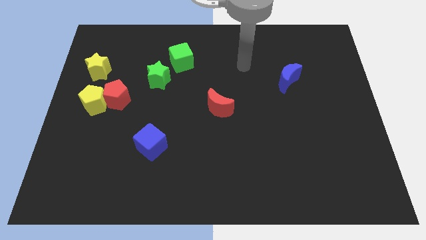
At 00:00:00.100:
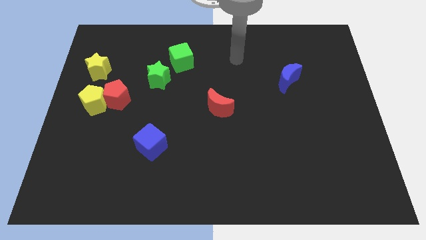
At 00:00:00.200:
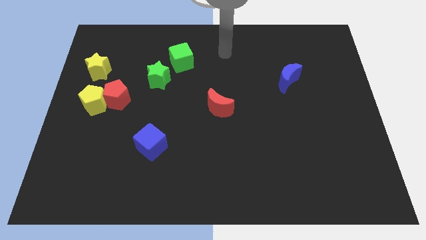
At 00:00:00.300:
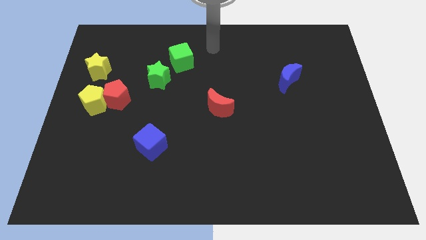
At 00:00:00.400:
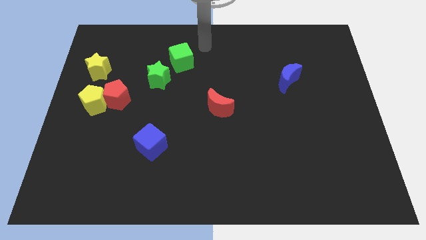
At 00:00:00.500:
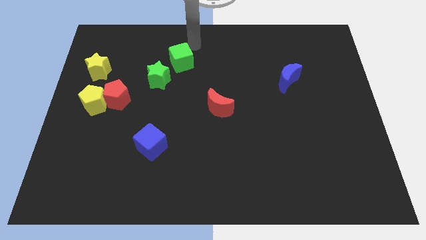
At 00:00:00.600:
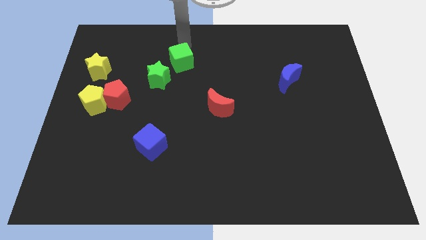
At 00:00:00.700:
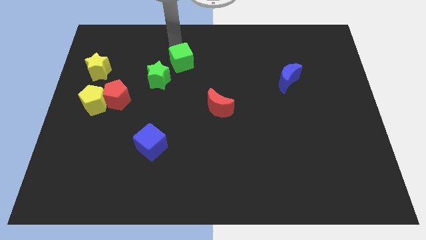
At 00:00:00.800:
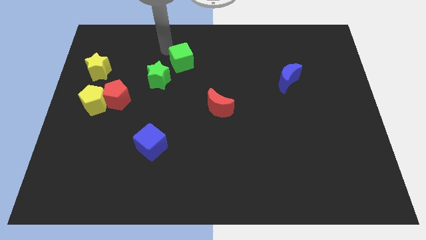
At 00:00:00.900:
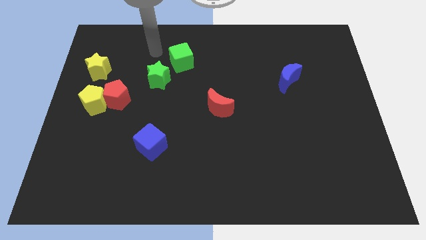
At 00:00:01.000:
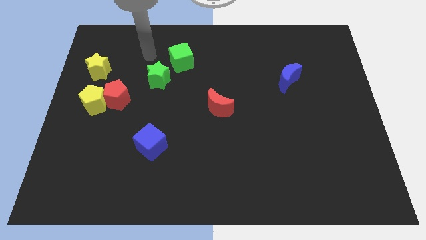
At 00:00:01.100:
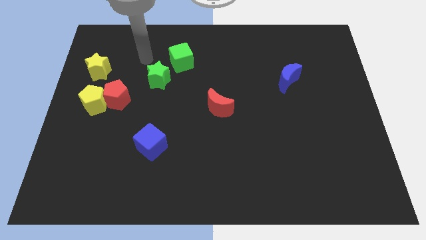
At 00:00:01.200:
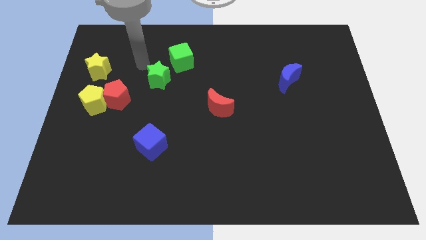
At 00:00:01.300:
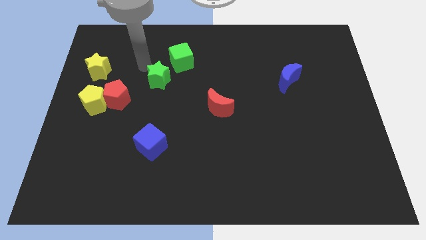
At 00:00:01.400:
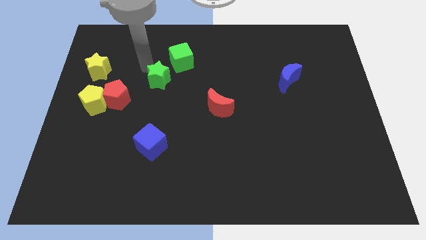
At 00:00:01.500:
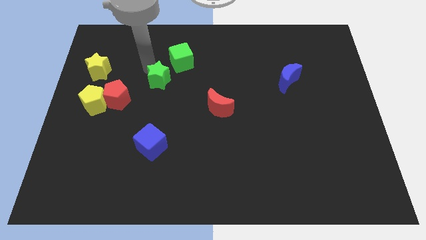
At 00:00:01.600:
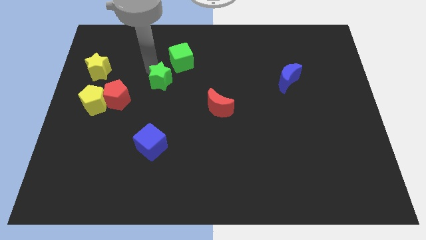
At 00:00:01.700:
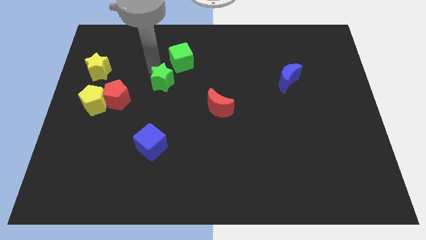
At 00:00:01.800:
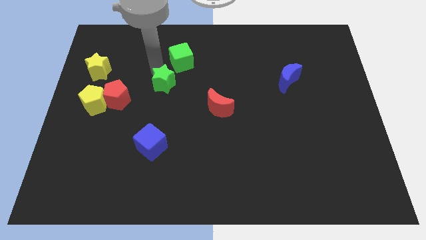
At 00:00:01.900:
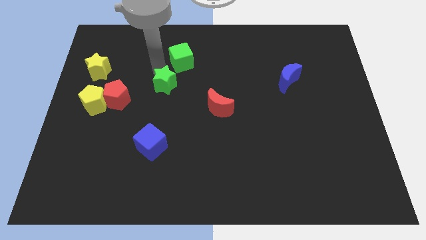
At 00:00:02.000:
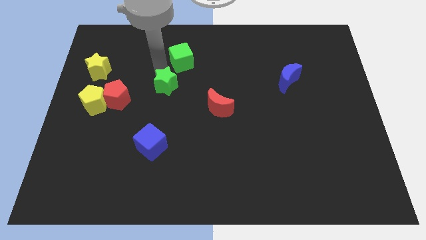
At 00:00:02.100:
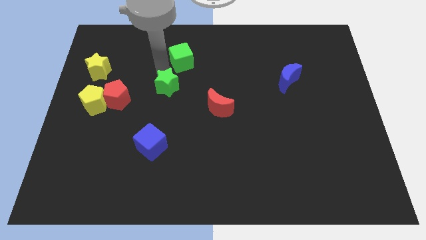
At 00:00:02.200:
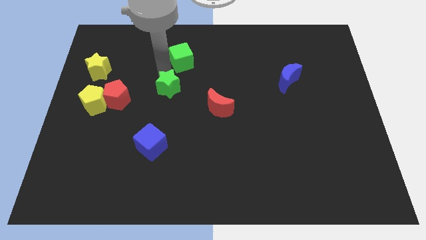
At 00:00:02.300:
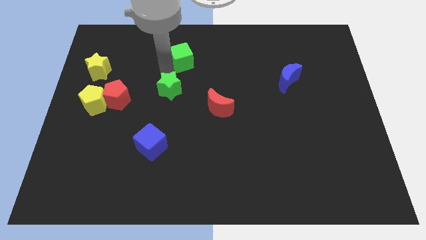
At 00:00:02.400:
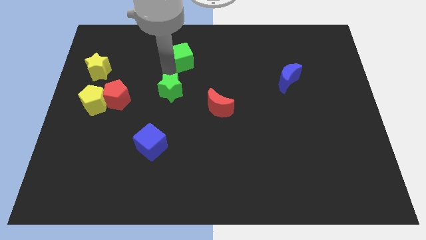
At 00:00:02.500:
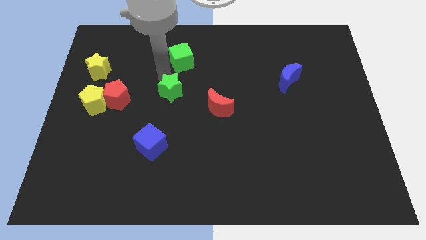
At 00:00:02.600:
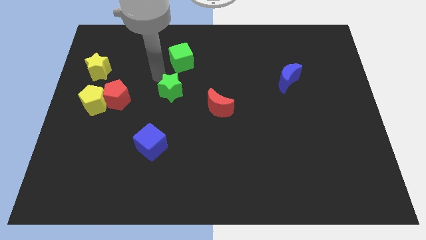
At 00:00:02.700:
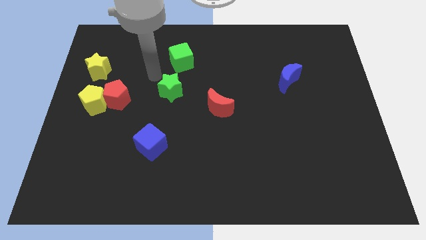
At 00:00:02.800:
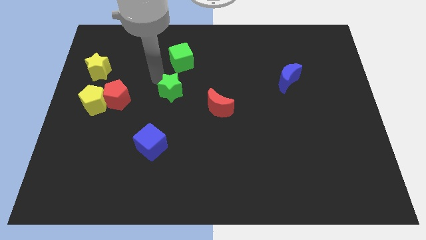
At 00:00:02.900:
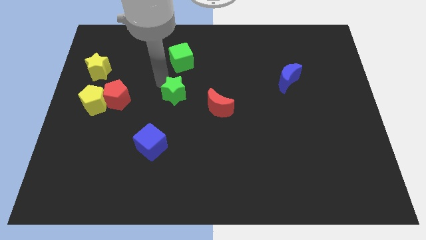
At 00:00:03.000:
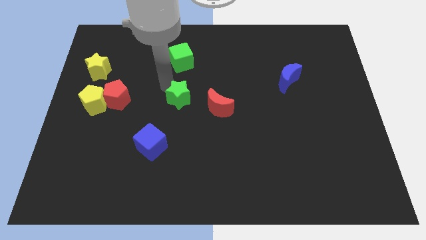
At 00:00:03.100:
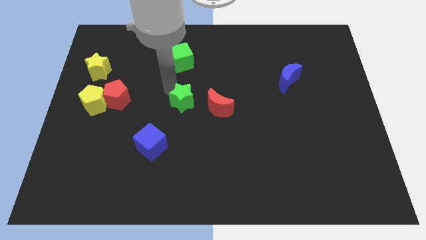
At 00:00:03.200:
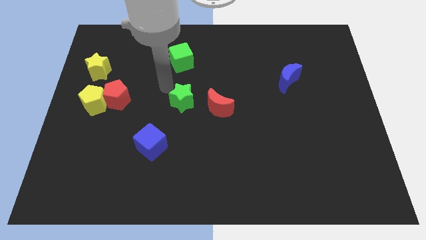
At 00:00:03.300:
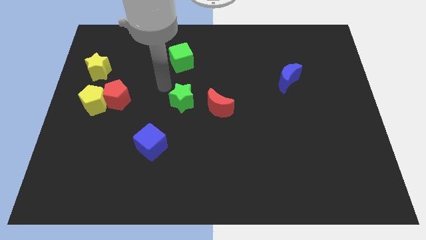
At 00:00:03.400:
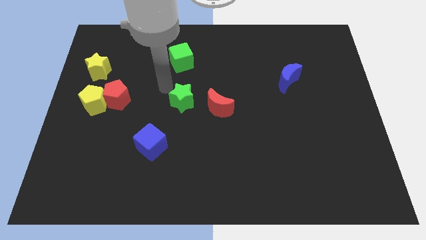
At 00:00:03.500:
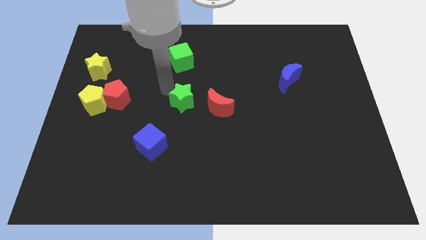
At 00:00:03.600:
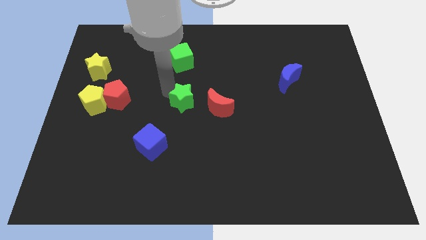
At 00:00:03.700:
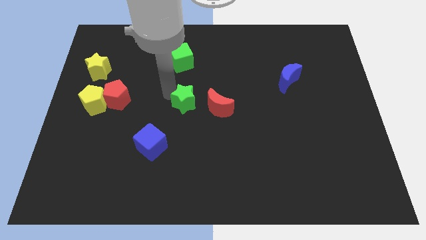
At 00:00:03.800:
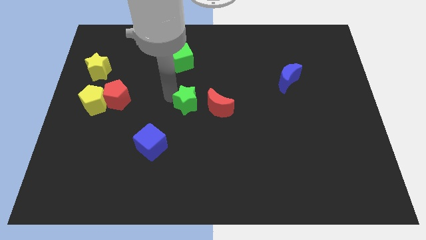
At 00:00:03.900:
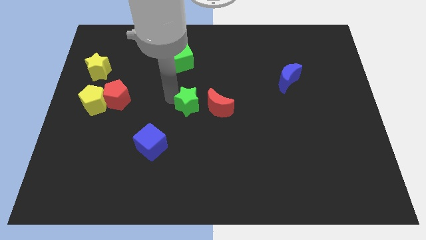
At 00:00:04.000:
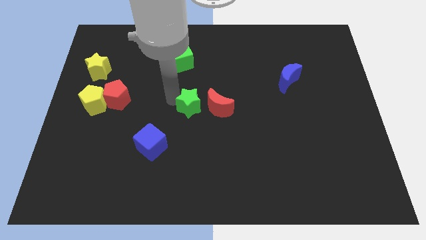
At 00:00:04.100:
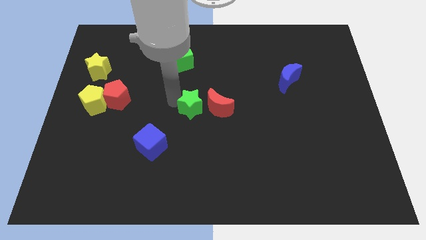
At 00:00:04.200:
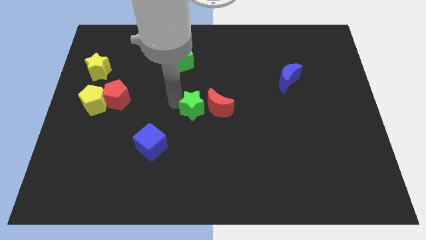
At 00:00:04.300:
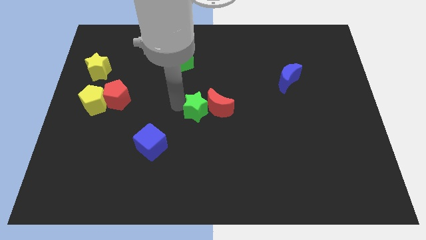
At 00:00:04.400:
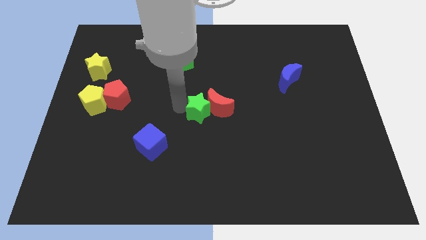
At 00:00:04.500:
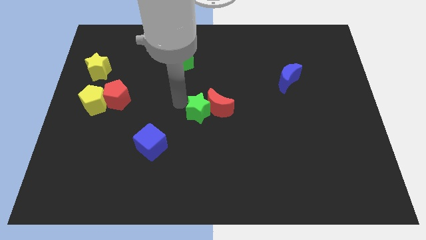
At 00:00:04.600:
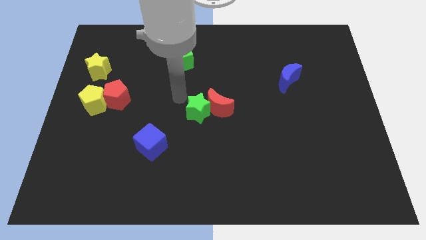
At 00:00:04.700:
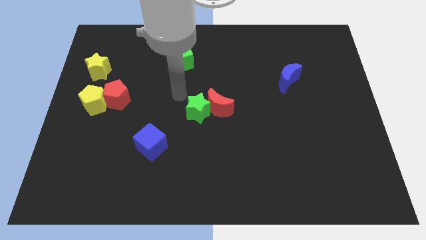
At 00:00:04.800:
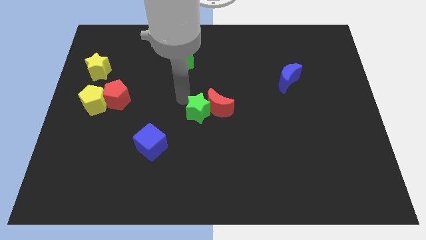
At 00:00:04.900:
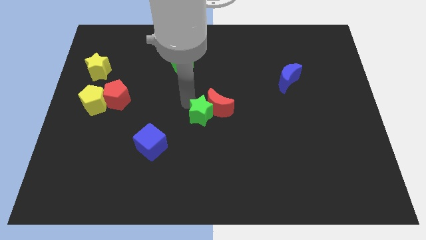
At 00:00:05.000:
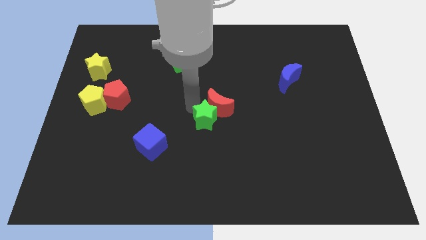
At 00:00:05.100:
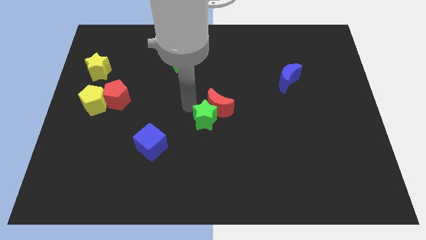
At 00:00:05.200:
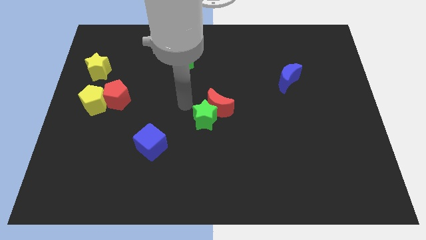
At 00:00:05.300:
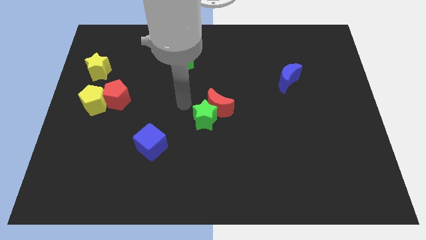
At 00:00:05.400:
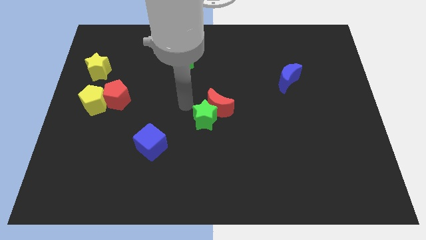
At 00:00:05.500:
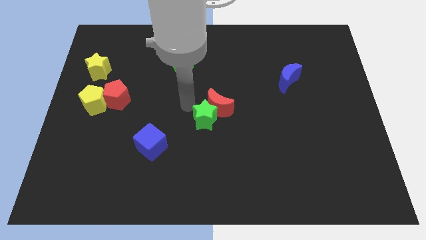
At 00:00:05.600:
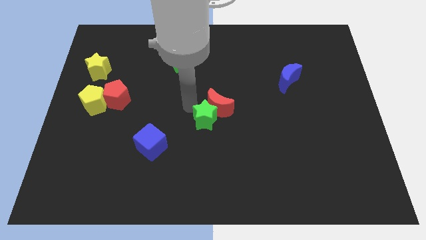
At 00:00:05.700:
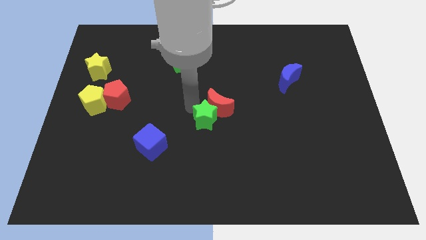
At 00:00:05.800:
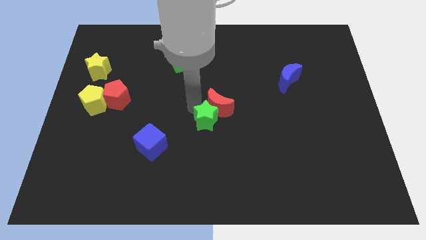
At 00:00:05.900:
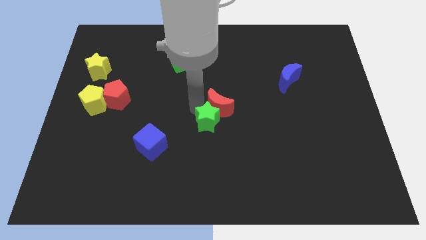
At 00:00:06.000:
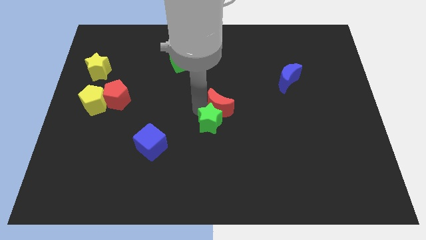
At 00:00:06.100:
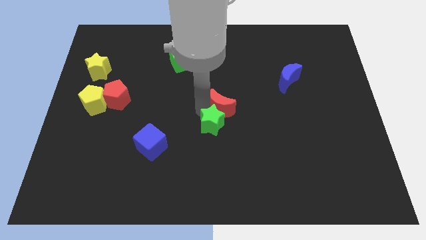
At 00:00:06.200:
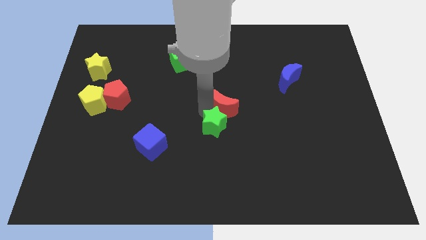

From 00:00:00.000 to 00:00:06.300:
slide the green star downwards and right

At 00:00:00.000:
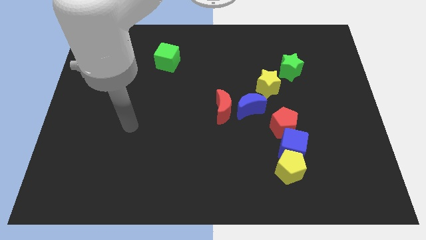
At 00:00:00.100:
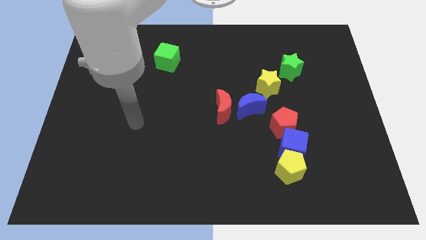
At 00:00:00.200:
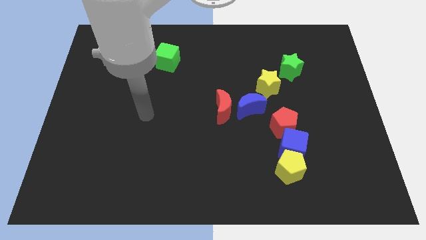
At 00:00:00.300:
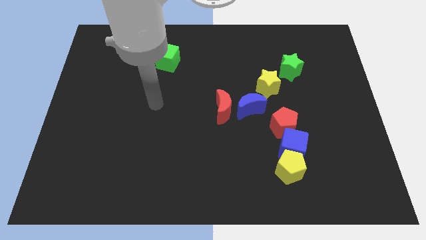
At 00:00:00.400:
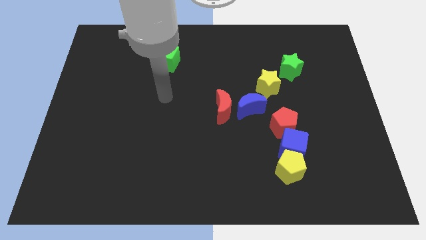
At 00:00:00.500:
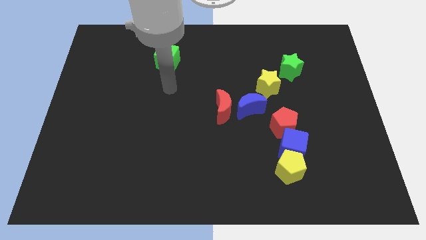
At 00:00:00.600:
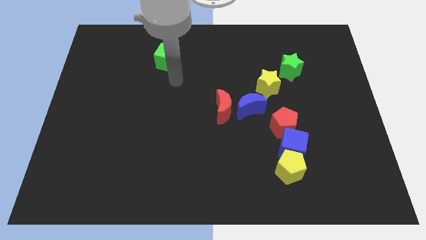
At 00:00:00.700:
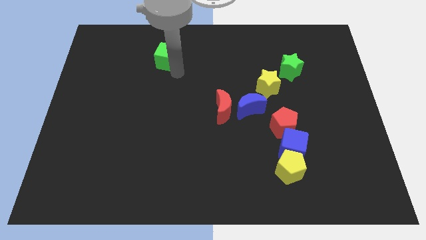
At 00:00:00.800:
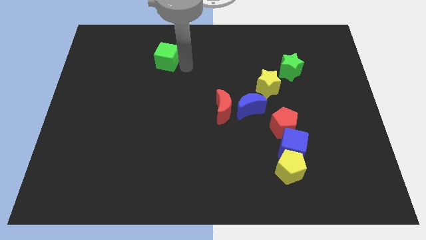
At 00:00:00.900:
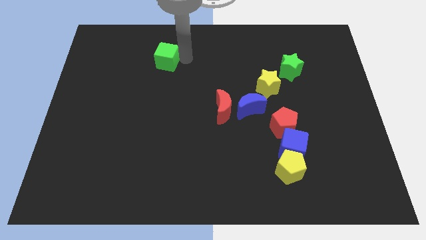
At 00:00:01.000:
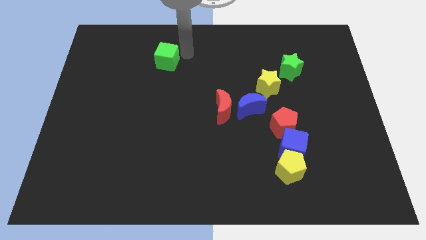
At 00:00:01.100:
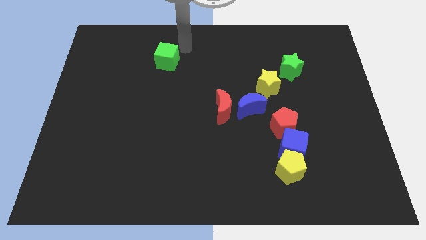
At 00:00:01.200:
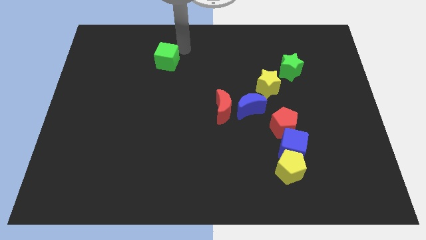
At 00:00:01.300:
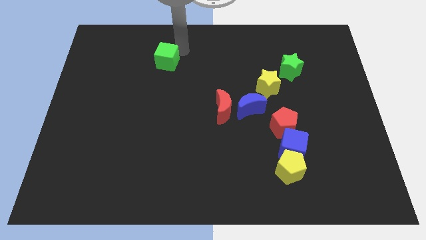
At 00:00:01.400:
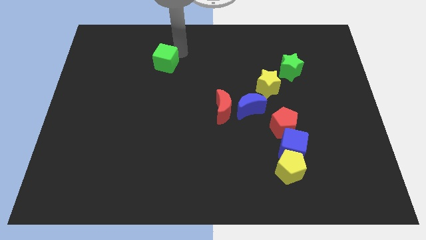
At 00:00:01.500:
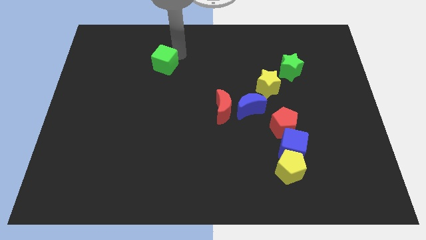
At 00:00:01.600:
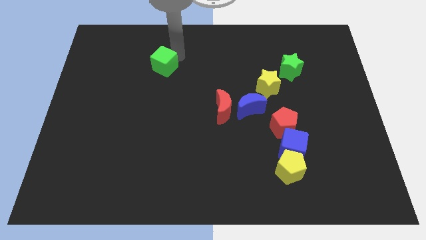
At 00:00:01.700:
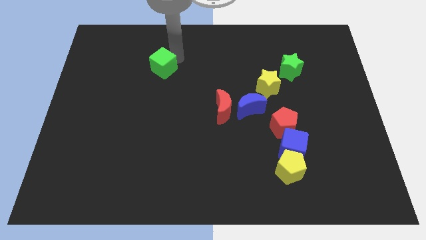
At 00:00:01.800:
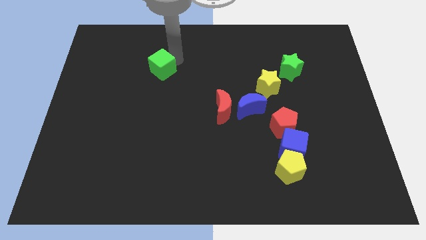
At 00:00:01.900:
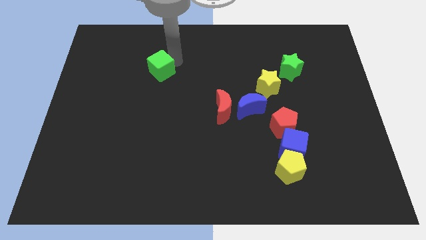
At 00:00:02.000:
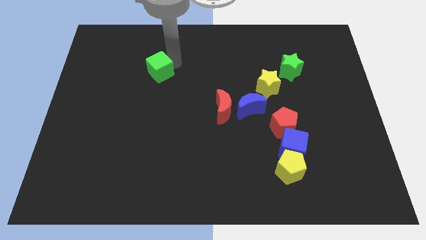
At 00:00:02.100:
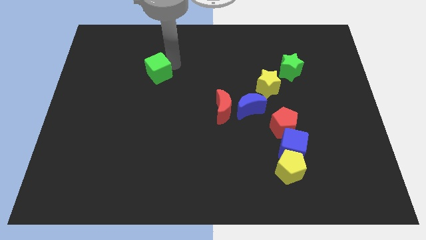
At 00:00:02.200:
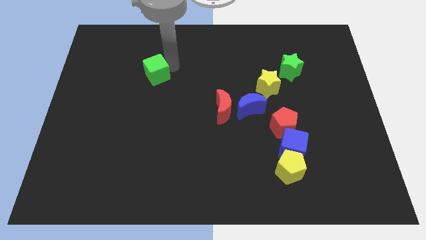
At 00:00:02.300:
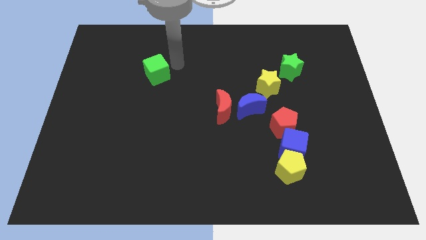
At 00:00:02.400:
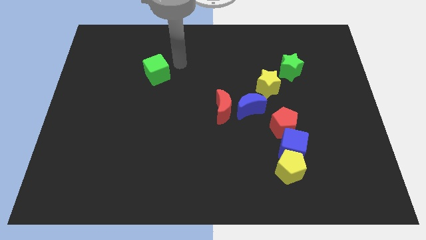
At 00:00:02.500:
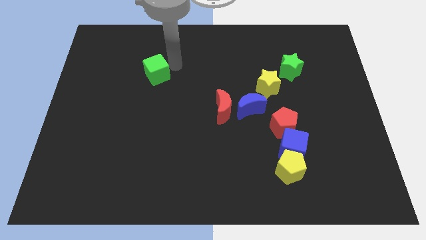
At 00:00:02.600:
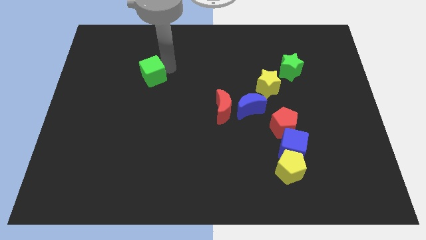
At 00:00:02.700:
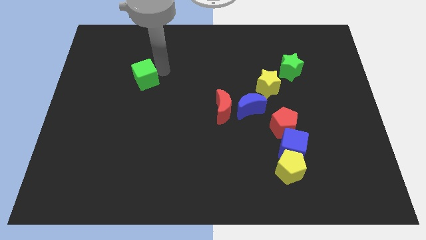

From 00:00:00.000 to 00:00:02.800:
push the green cube down and to the left somewhat

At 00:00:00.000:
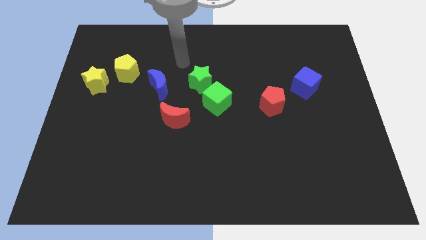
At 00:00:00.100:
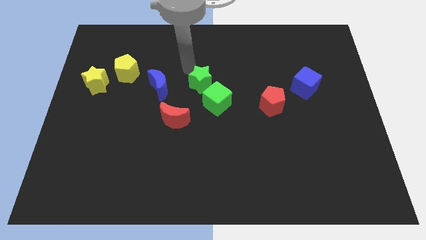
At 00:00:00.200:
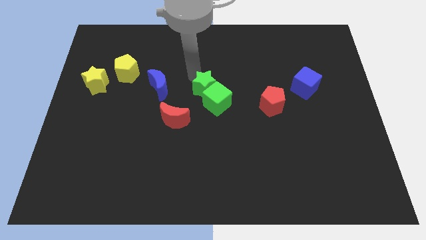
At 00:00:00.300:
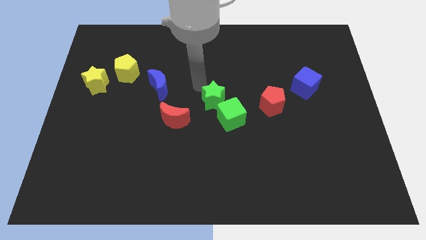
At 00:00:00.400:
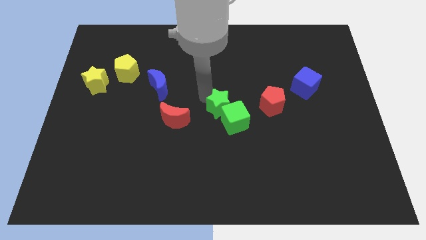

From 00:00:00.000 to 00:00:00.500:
slightly slide the green cube diagonally down and to the right
